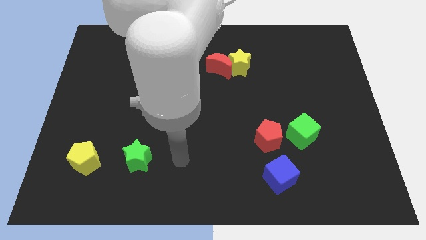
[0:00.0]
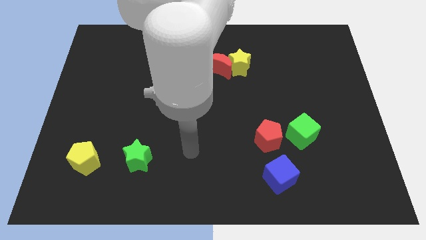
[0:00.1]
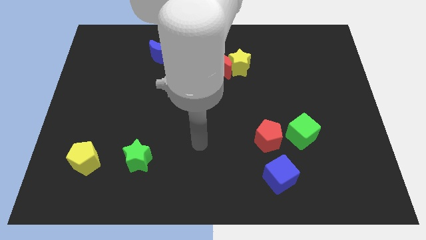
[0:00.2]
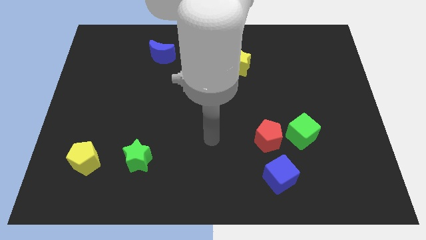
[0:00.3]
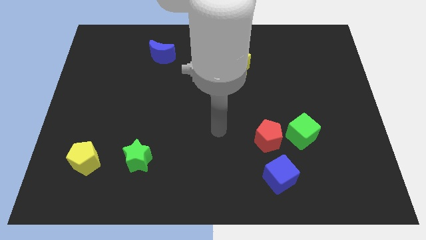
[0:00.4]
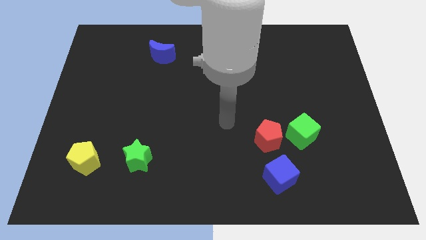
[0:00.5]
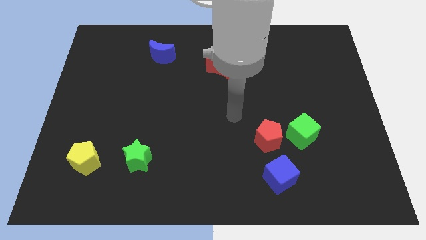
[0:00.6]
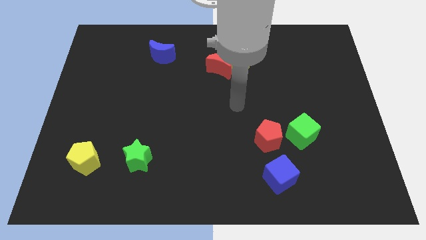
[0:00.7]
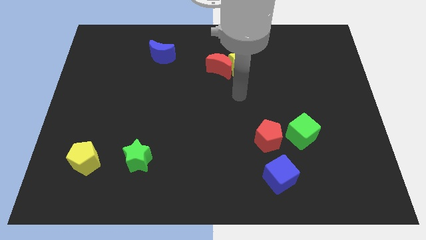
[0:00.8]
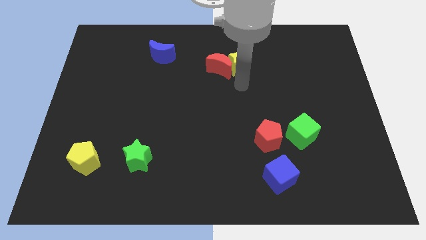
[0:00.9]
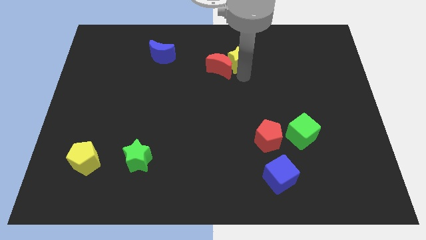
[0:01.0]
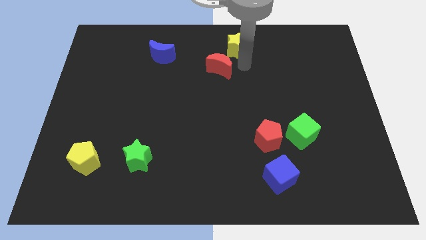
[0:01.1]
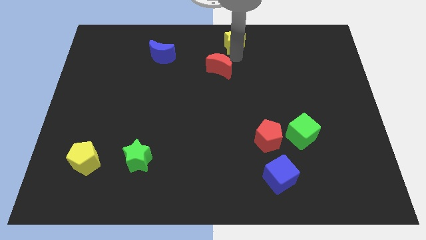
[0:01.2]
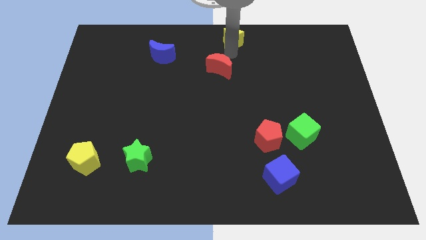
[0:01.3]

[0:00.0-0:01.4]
separate the red moon from the yellow star

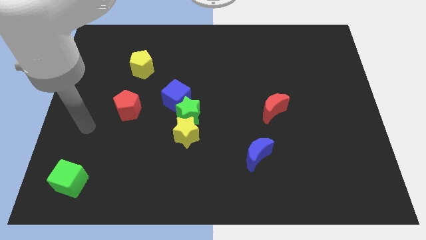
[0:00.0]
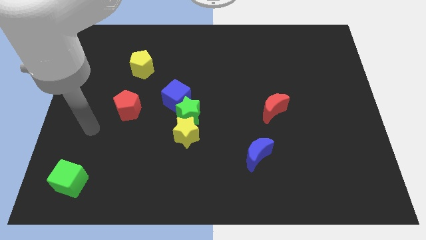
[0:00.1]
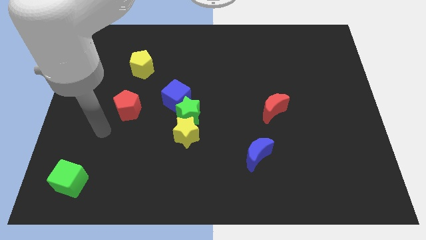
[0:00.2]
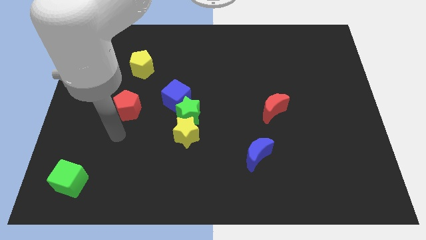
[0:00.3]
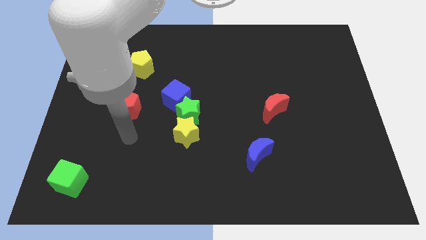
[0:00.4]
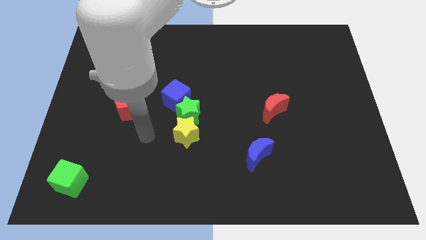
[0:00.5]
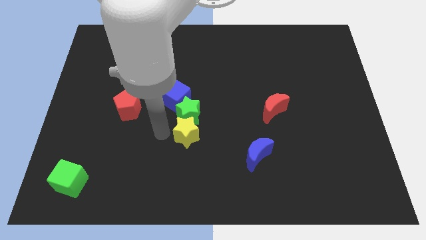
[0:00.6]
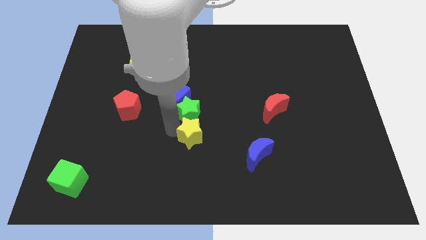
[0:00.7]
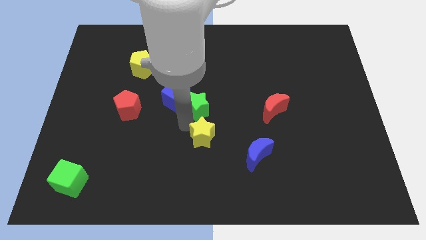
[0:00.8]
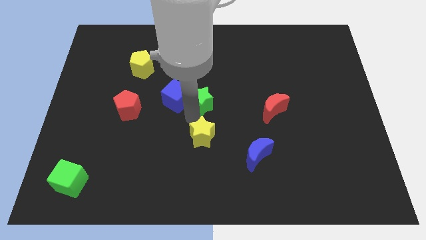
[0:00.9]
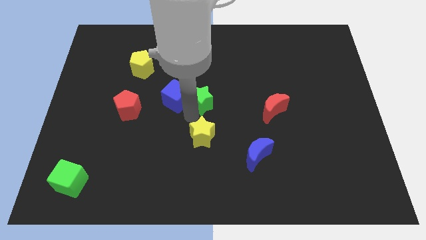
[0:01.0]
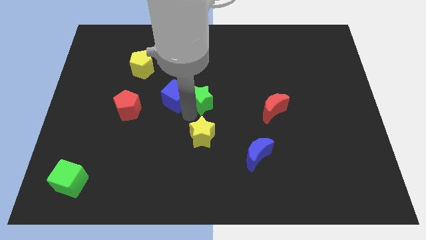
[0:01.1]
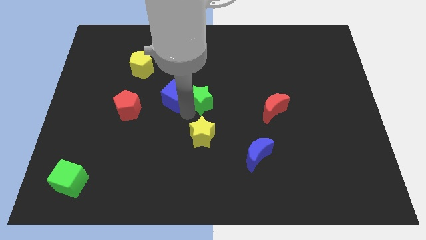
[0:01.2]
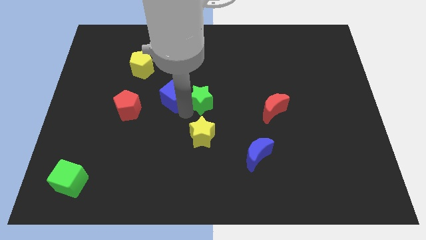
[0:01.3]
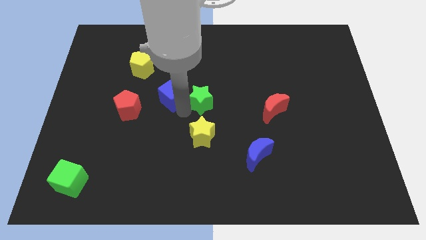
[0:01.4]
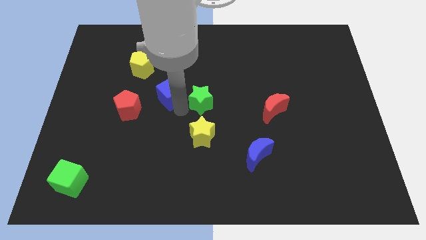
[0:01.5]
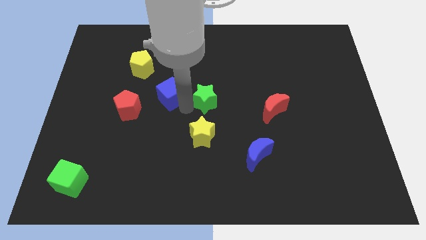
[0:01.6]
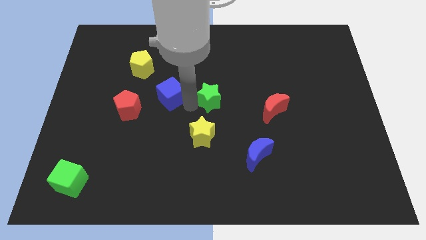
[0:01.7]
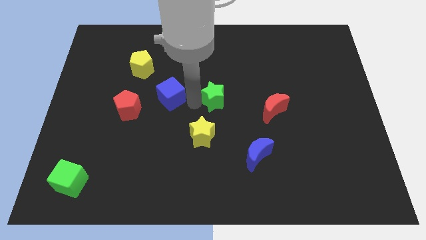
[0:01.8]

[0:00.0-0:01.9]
move the blue cube away from the green star

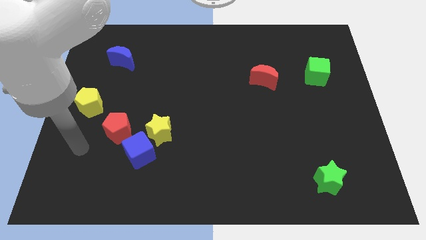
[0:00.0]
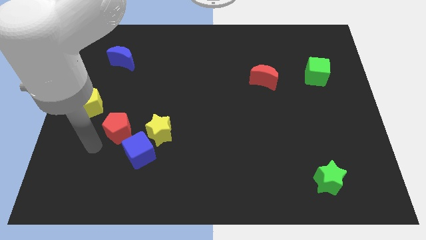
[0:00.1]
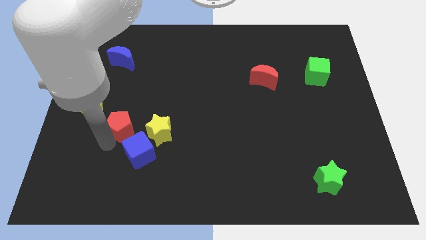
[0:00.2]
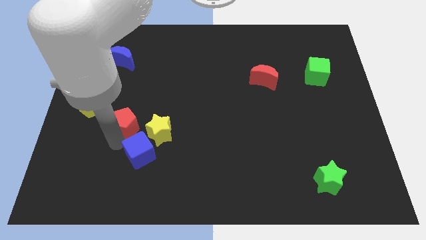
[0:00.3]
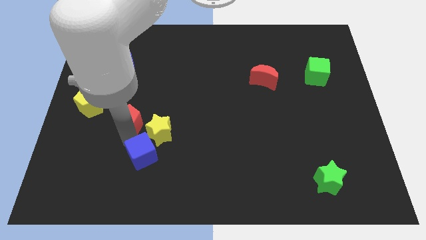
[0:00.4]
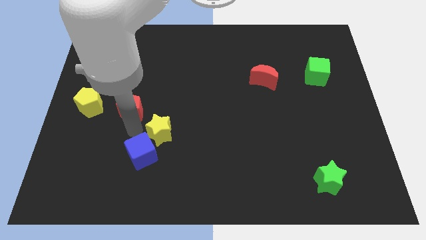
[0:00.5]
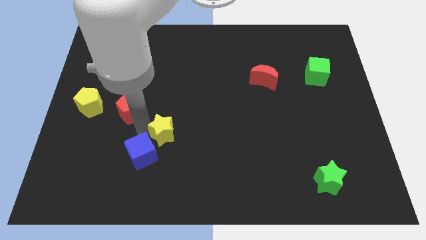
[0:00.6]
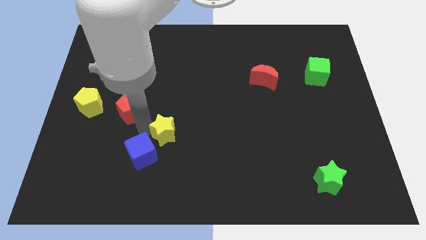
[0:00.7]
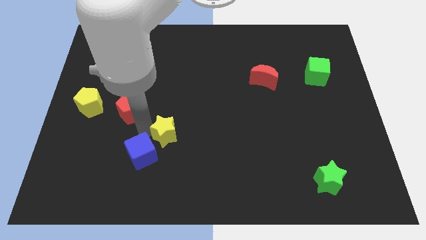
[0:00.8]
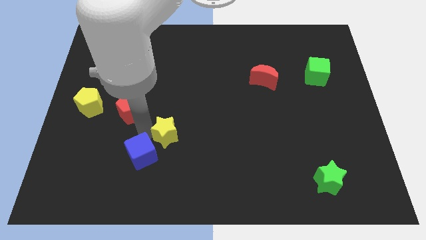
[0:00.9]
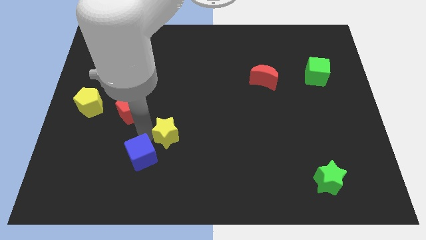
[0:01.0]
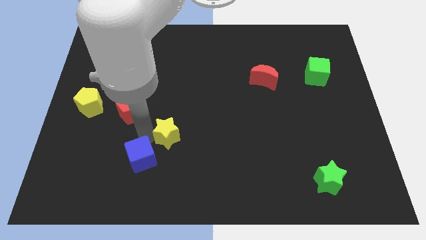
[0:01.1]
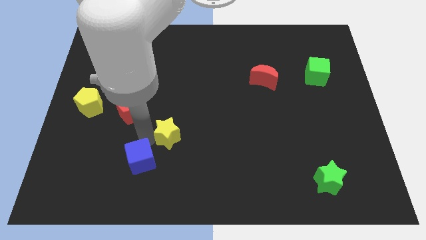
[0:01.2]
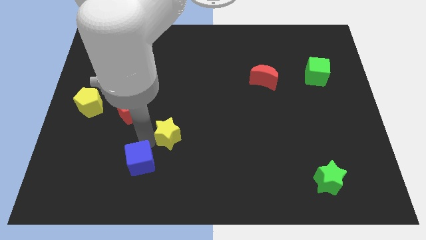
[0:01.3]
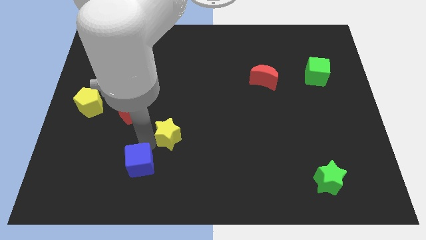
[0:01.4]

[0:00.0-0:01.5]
separate the blue cube from the yellow star and red pentagon

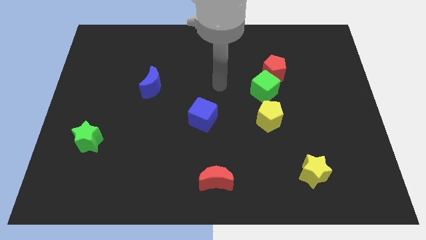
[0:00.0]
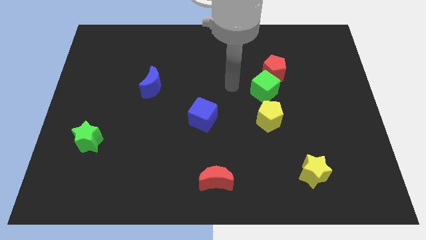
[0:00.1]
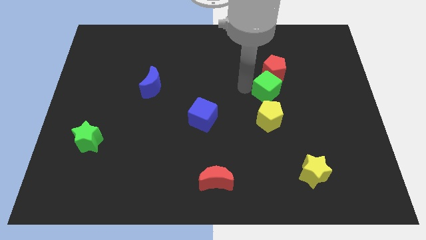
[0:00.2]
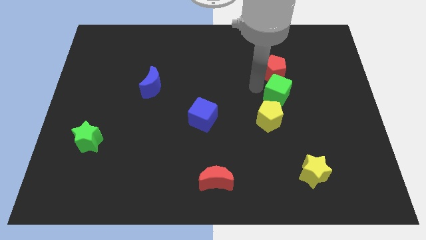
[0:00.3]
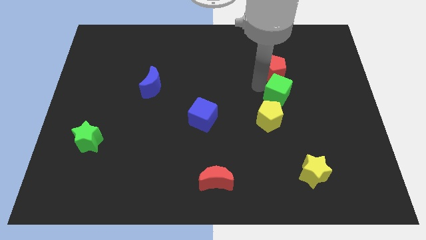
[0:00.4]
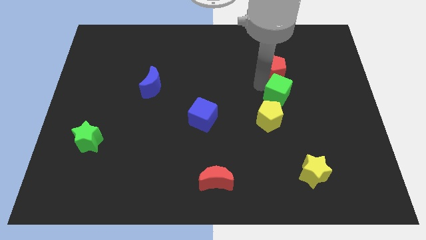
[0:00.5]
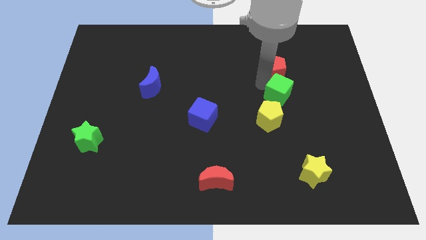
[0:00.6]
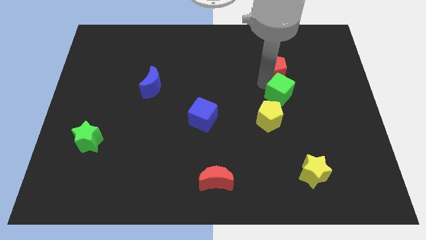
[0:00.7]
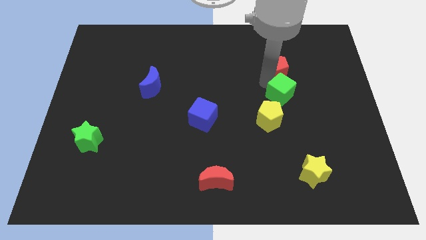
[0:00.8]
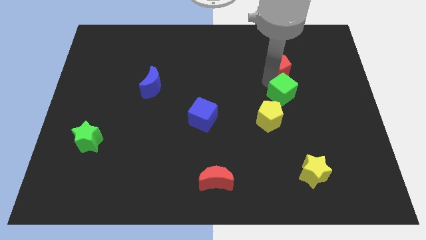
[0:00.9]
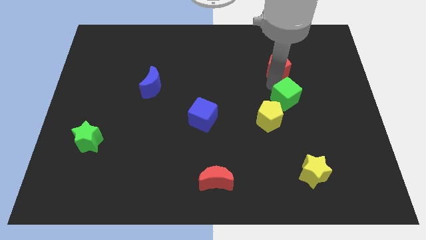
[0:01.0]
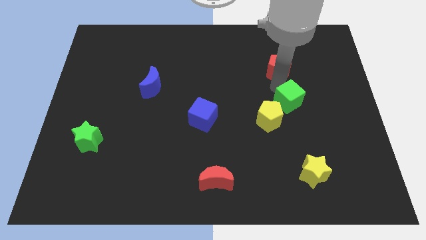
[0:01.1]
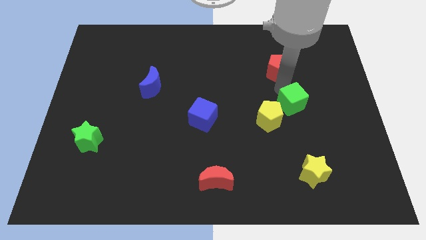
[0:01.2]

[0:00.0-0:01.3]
pull the red pentagon apart from the green cube

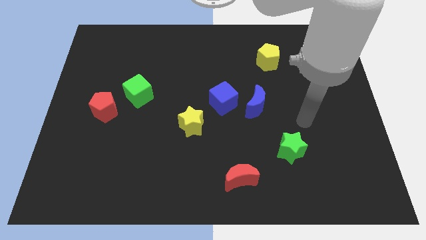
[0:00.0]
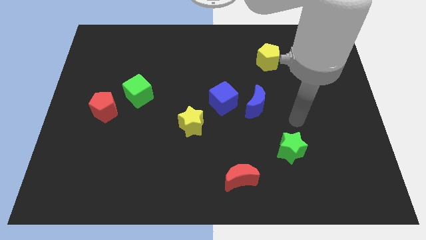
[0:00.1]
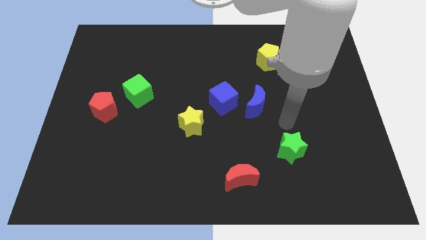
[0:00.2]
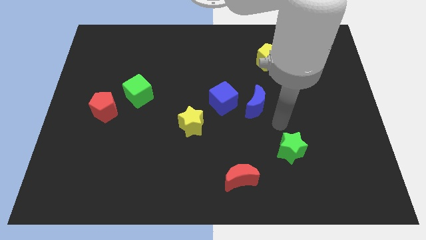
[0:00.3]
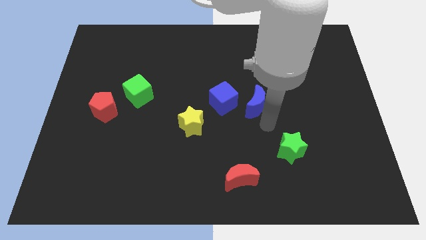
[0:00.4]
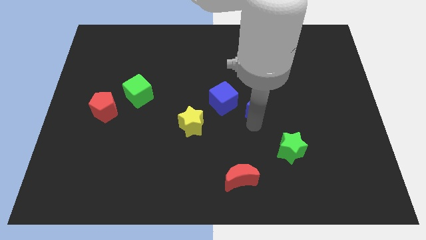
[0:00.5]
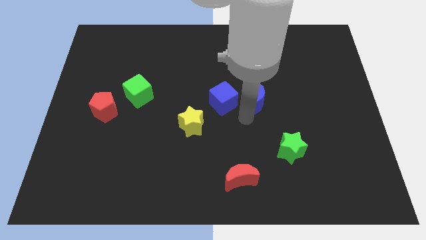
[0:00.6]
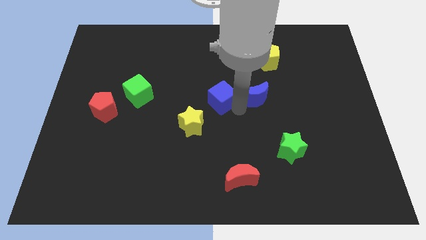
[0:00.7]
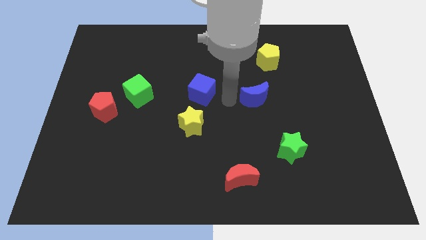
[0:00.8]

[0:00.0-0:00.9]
move the blue moon away from the blue cube

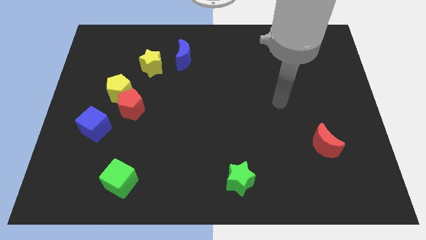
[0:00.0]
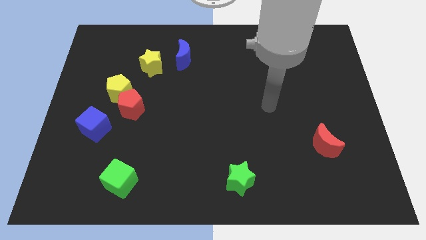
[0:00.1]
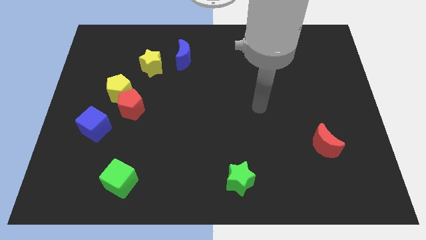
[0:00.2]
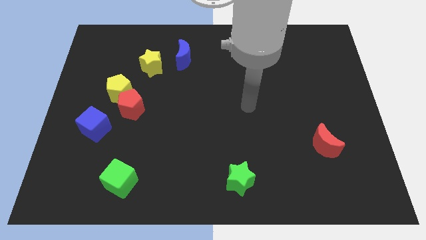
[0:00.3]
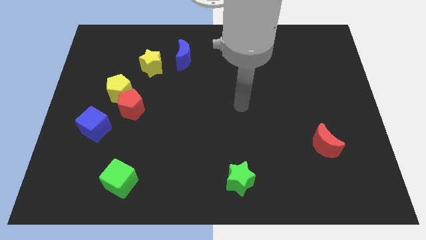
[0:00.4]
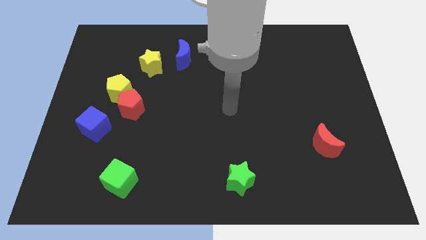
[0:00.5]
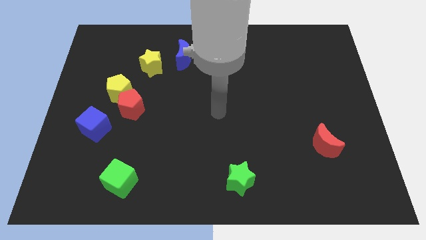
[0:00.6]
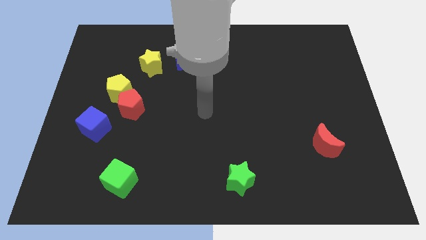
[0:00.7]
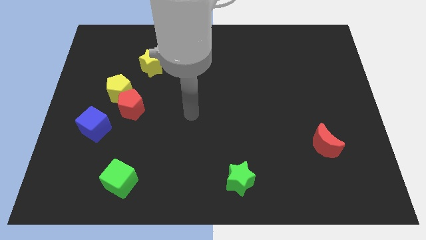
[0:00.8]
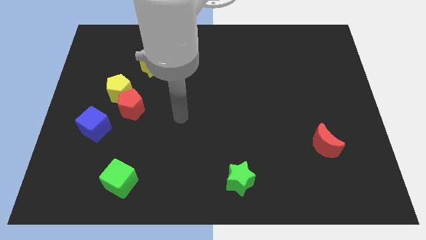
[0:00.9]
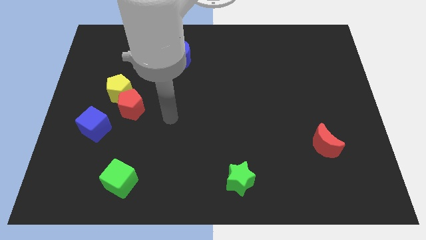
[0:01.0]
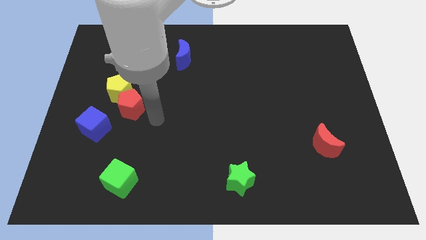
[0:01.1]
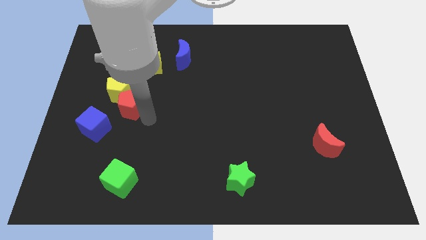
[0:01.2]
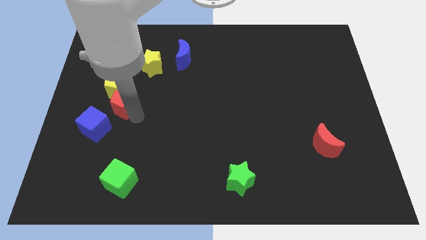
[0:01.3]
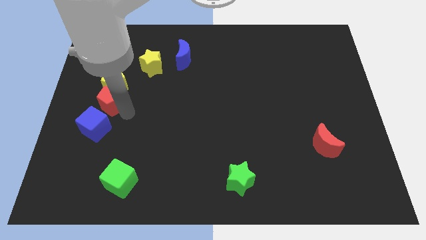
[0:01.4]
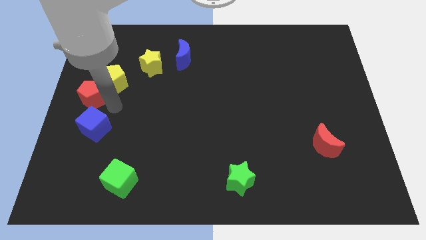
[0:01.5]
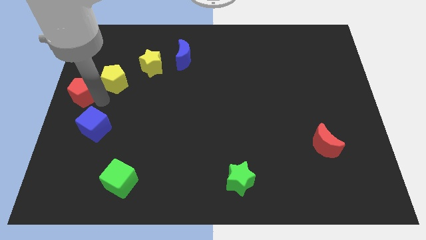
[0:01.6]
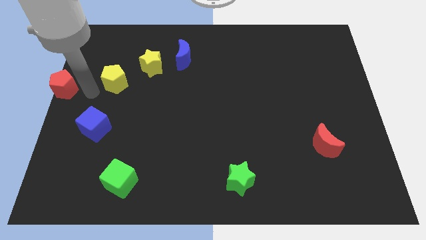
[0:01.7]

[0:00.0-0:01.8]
separate the yellow pentagon from the red pentagon

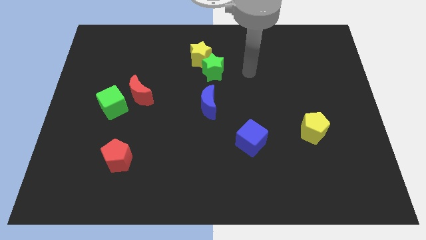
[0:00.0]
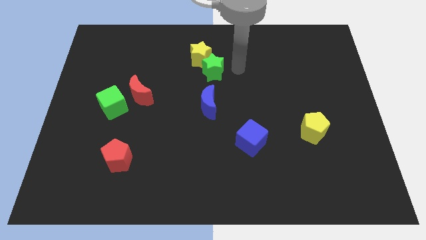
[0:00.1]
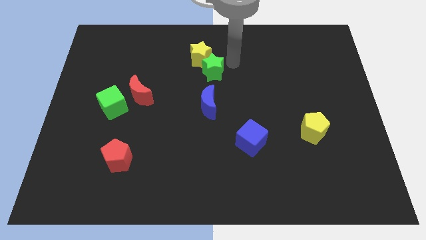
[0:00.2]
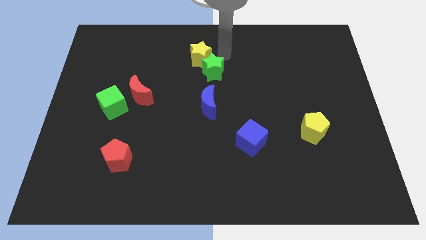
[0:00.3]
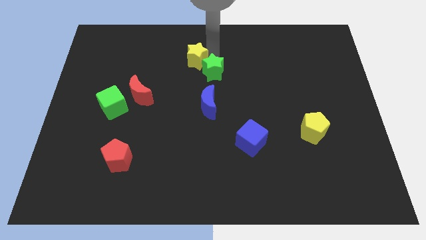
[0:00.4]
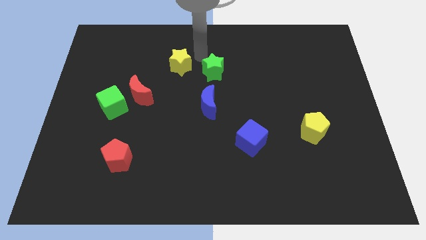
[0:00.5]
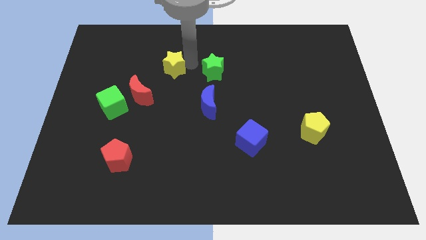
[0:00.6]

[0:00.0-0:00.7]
separate the green star from the yellow star
